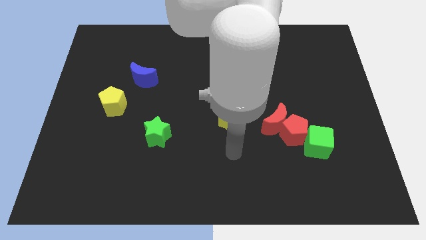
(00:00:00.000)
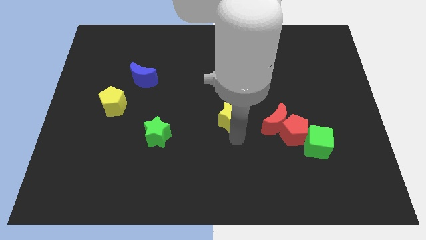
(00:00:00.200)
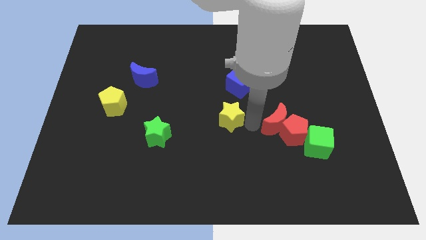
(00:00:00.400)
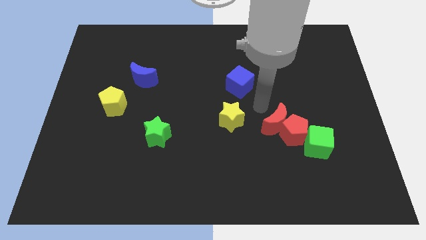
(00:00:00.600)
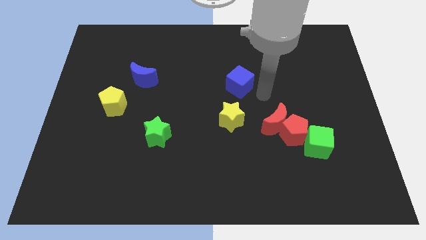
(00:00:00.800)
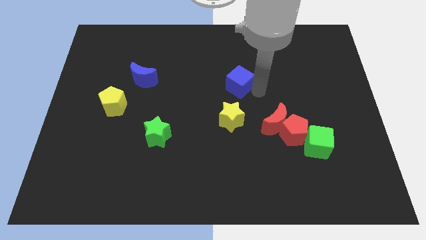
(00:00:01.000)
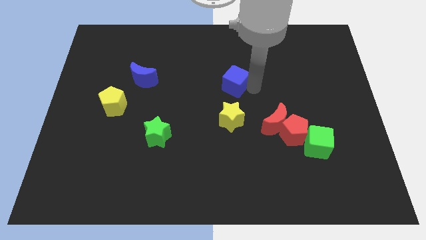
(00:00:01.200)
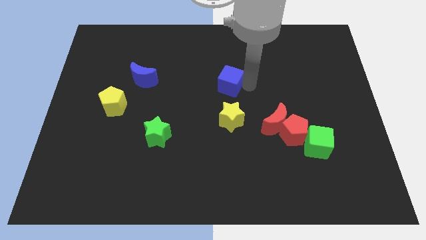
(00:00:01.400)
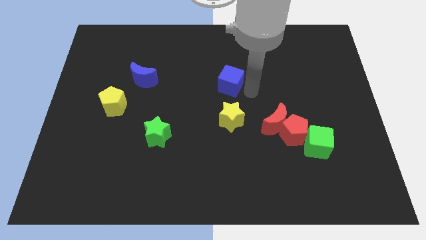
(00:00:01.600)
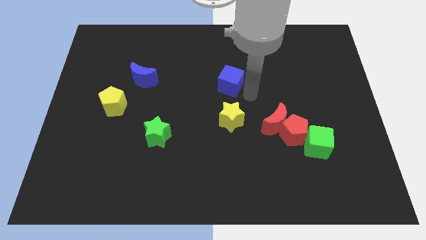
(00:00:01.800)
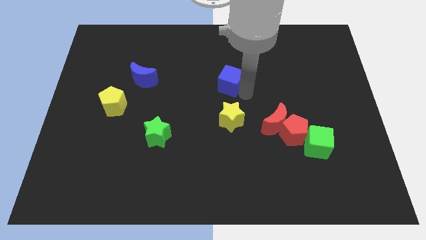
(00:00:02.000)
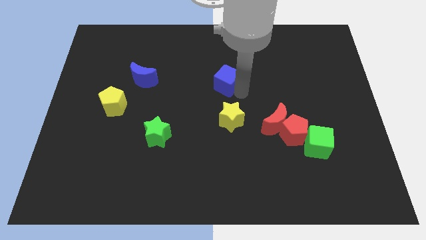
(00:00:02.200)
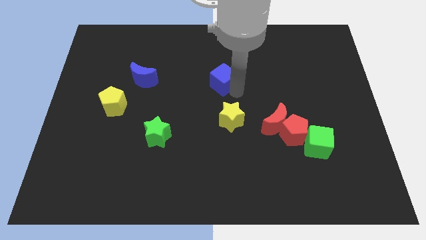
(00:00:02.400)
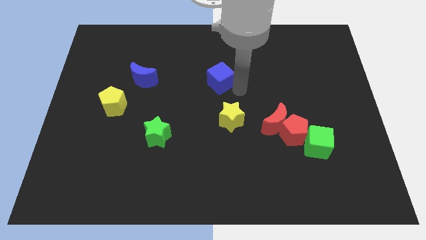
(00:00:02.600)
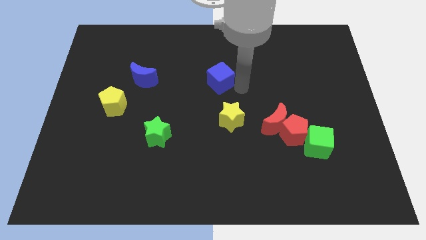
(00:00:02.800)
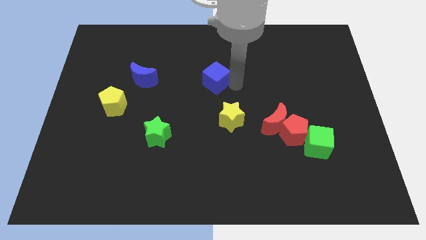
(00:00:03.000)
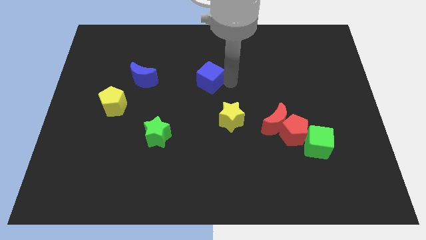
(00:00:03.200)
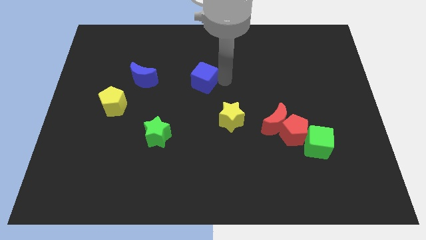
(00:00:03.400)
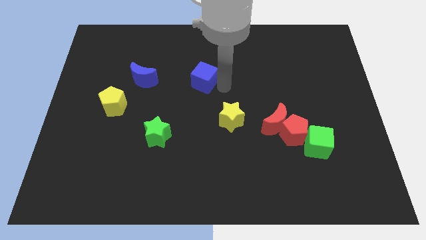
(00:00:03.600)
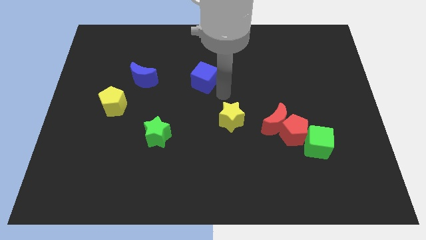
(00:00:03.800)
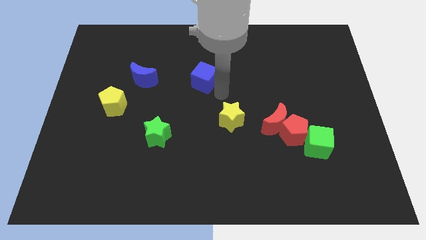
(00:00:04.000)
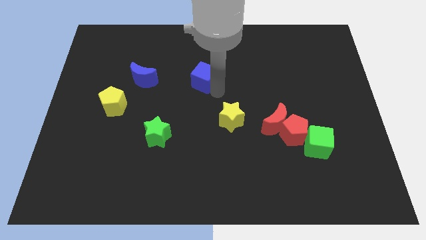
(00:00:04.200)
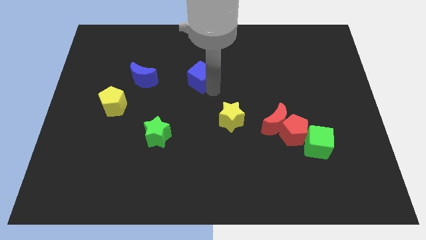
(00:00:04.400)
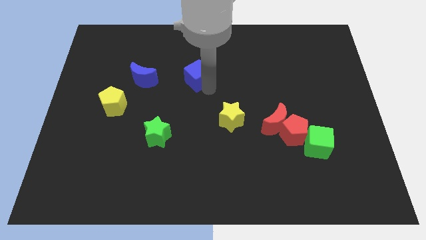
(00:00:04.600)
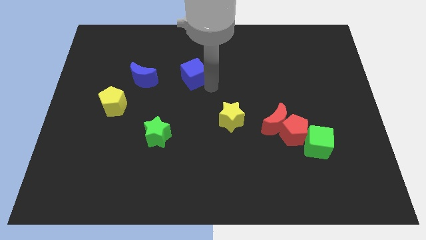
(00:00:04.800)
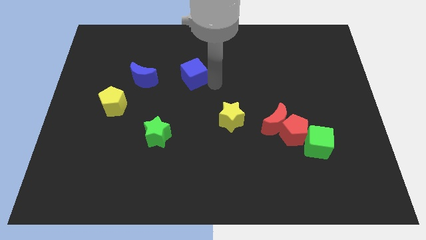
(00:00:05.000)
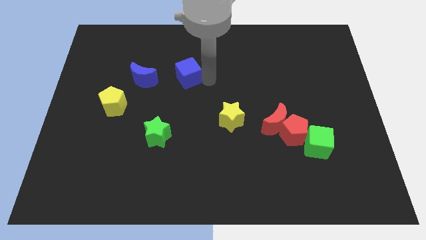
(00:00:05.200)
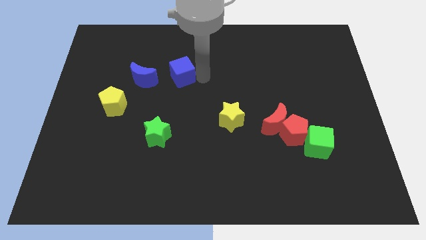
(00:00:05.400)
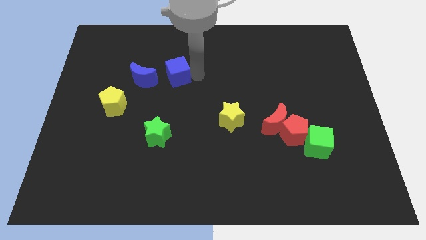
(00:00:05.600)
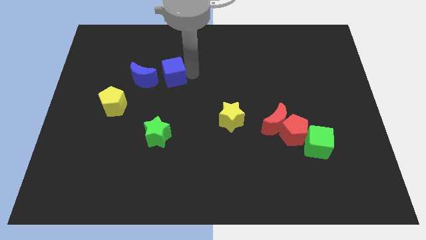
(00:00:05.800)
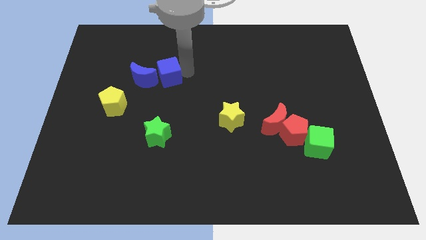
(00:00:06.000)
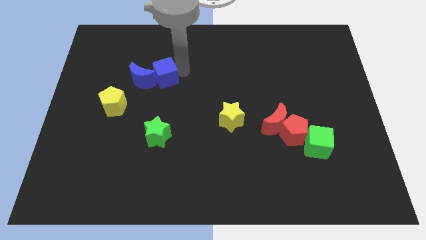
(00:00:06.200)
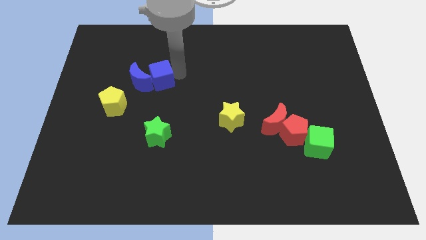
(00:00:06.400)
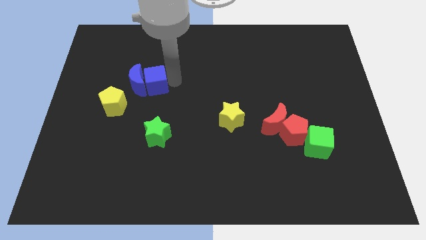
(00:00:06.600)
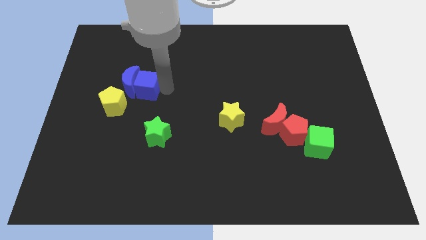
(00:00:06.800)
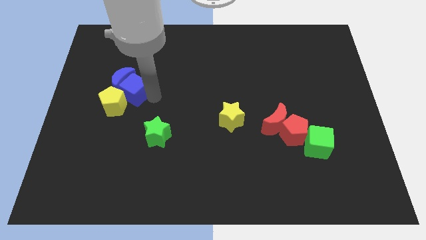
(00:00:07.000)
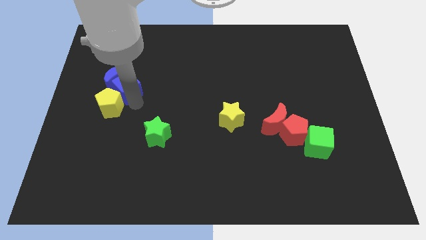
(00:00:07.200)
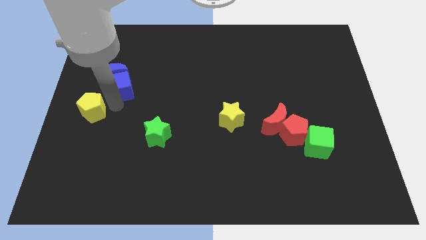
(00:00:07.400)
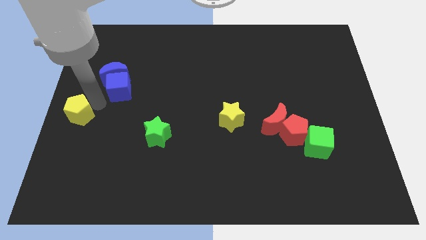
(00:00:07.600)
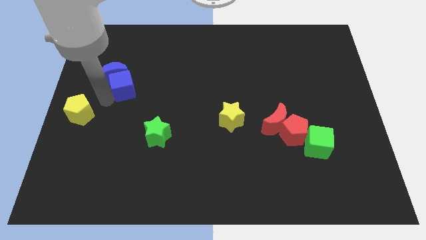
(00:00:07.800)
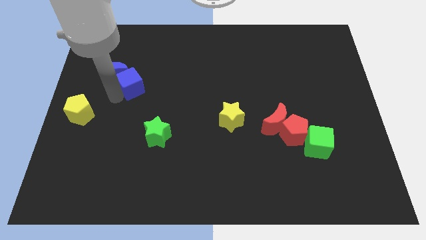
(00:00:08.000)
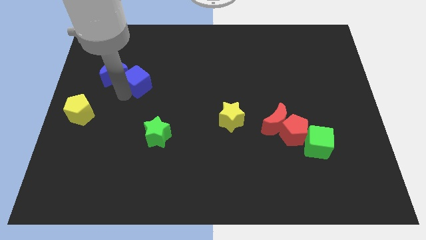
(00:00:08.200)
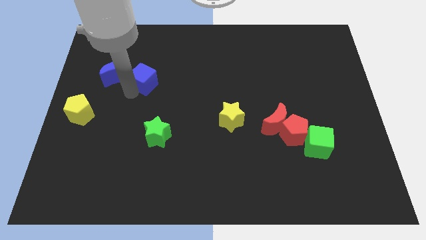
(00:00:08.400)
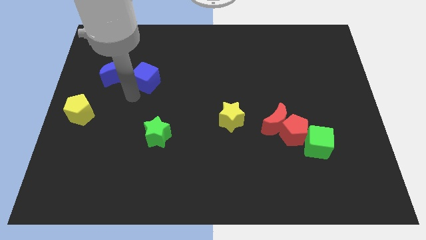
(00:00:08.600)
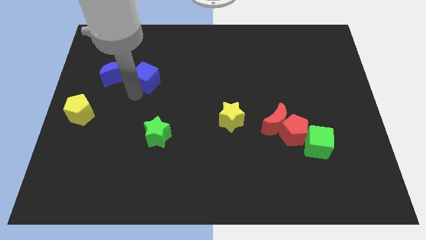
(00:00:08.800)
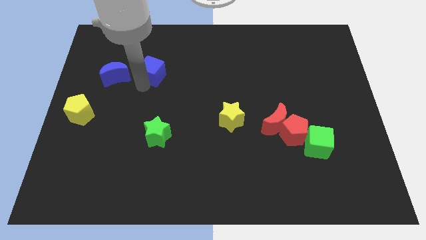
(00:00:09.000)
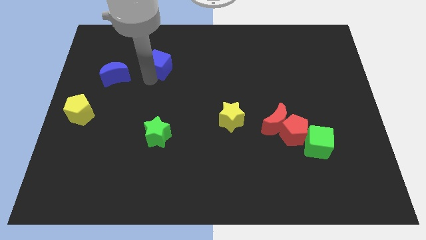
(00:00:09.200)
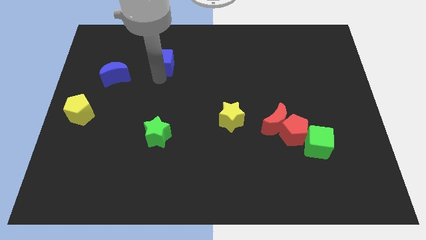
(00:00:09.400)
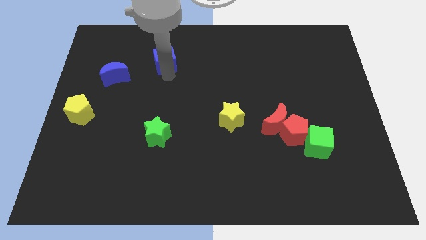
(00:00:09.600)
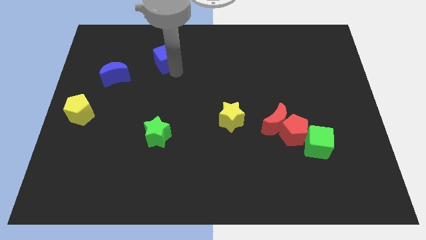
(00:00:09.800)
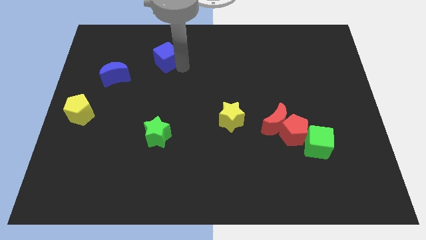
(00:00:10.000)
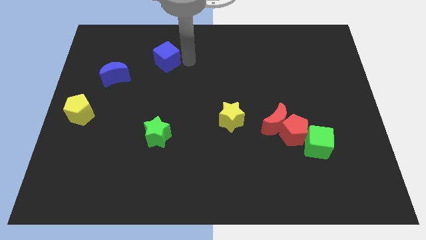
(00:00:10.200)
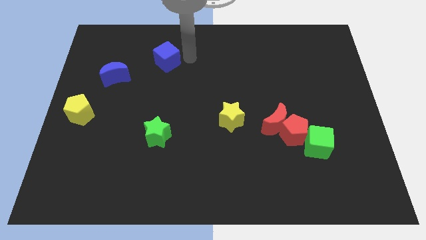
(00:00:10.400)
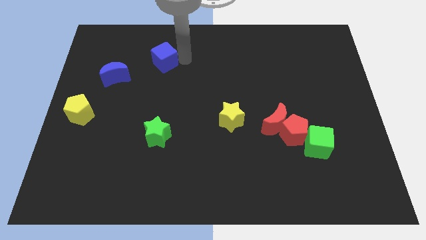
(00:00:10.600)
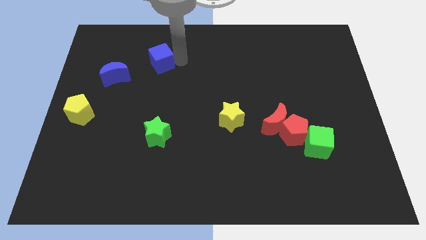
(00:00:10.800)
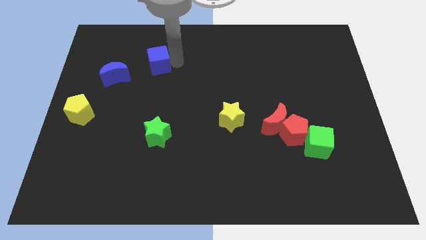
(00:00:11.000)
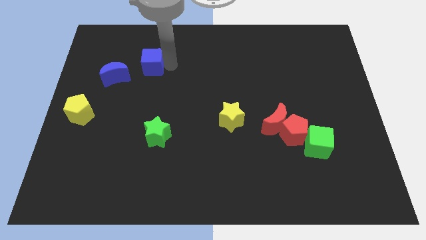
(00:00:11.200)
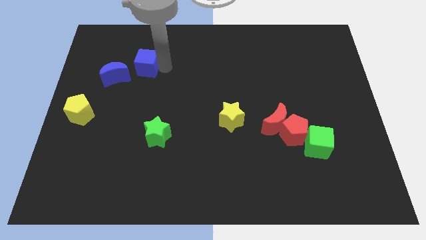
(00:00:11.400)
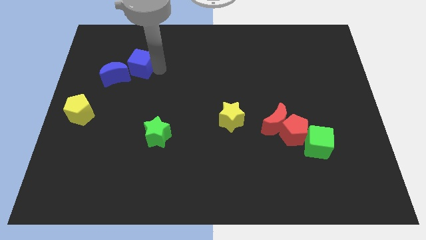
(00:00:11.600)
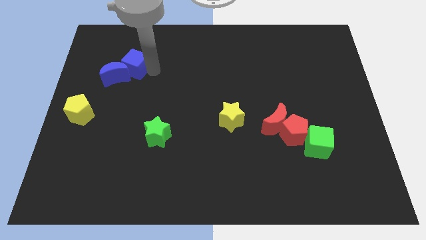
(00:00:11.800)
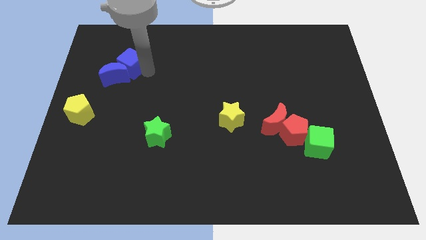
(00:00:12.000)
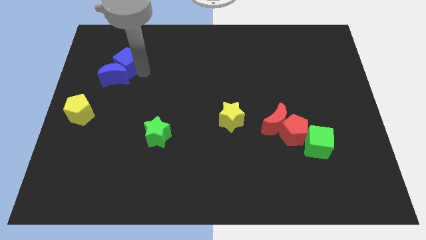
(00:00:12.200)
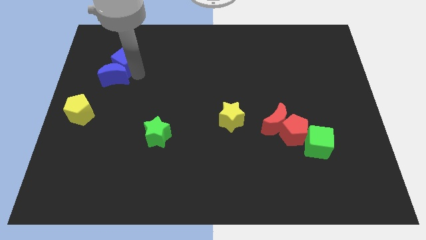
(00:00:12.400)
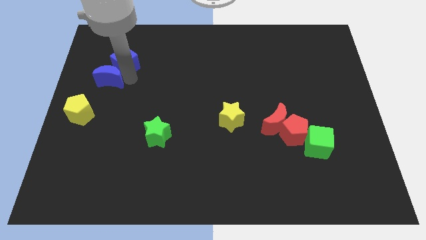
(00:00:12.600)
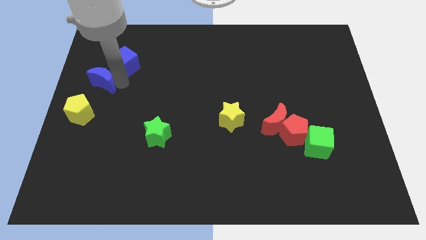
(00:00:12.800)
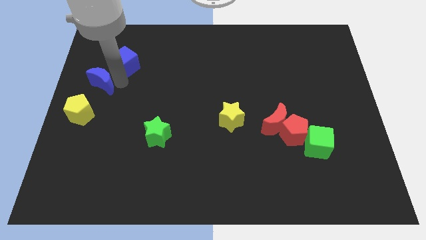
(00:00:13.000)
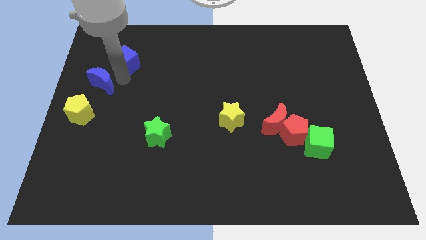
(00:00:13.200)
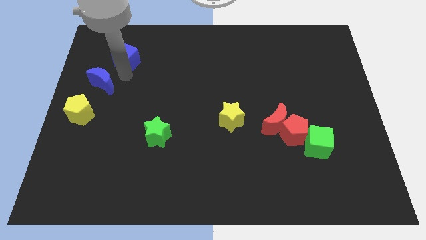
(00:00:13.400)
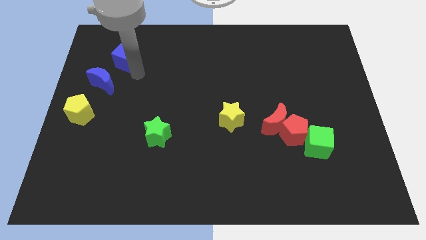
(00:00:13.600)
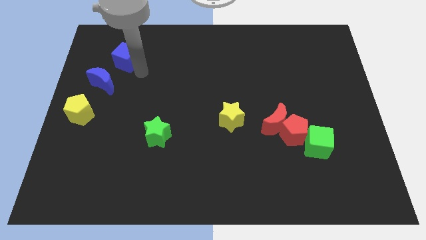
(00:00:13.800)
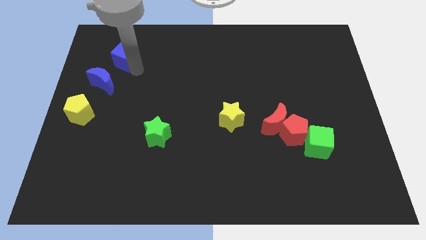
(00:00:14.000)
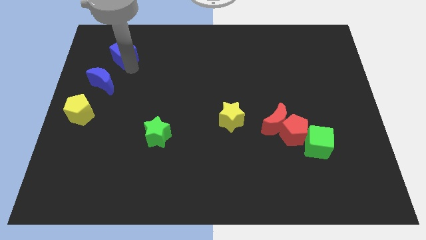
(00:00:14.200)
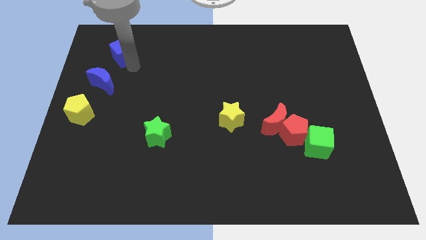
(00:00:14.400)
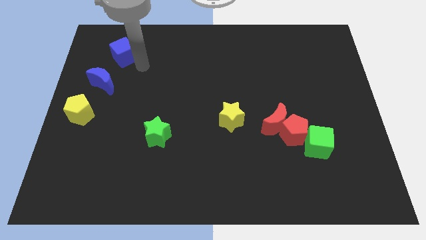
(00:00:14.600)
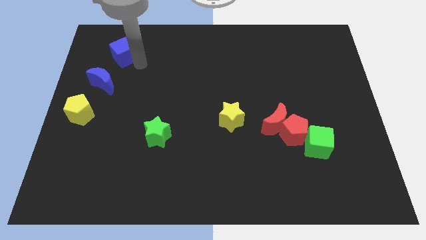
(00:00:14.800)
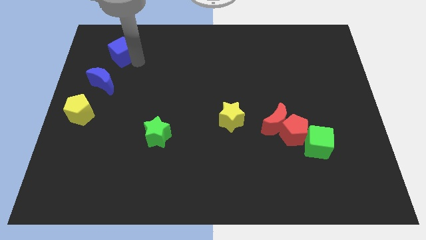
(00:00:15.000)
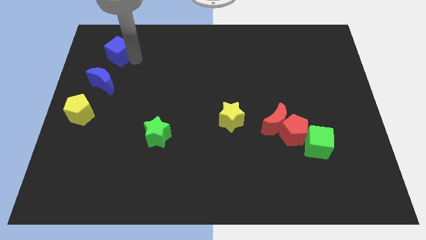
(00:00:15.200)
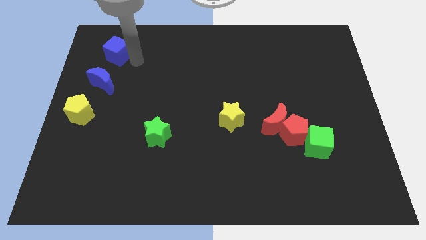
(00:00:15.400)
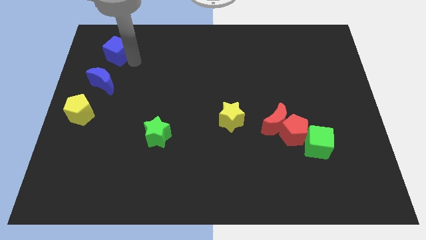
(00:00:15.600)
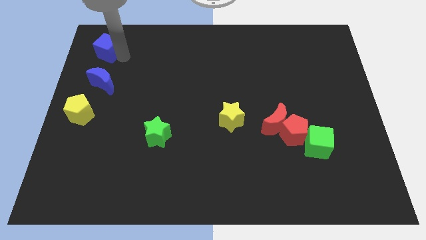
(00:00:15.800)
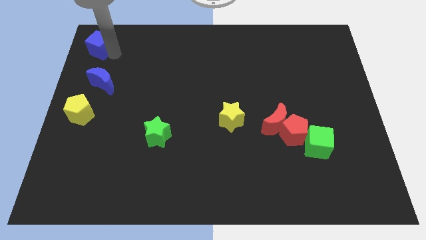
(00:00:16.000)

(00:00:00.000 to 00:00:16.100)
put the blue cube to the top left corner
